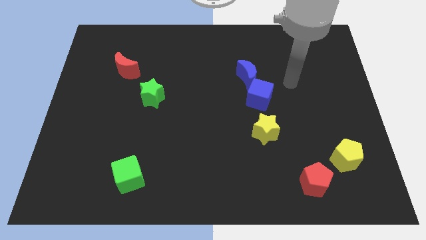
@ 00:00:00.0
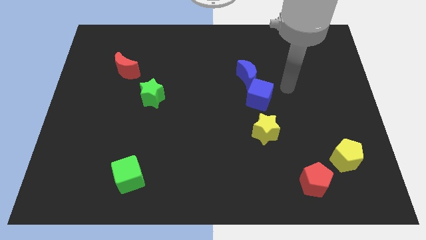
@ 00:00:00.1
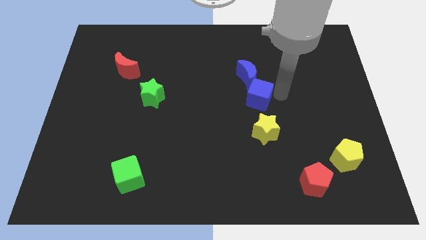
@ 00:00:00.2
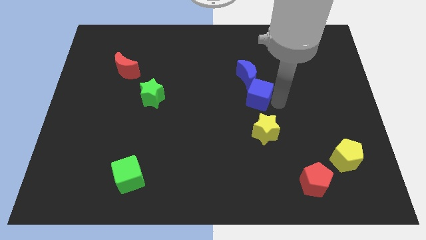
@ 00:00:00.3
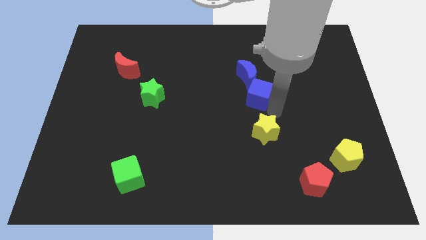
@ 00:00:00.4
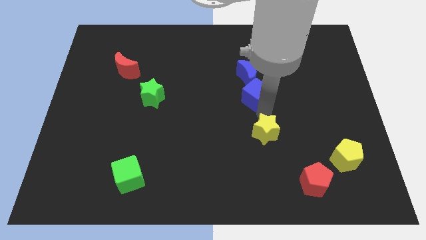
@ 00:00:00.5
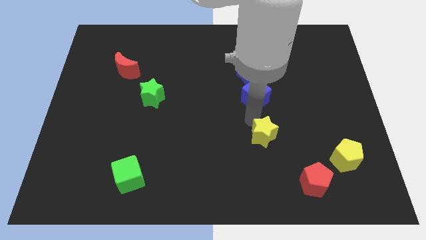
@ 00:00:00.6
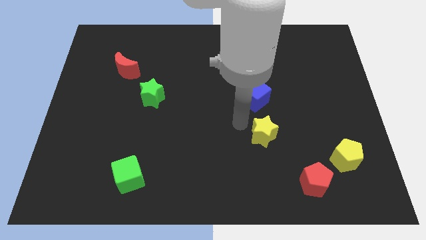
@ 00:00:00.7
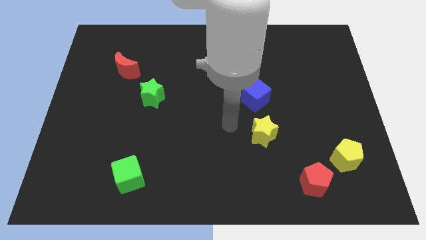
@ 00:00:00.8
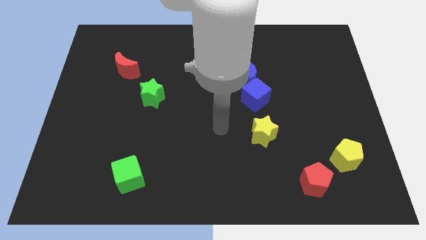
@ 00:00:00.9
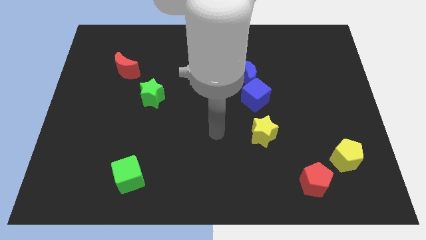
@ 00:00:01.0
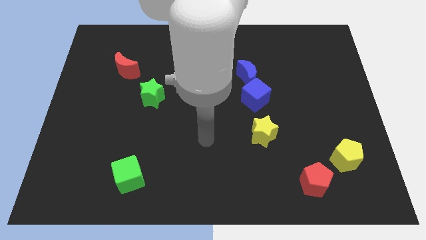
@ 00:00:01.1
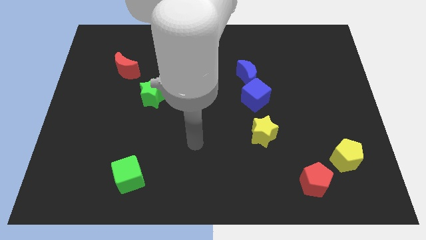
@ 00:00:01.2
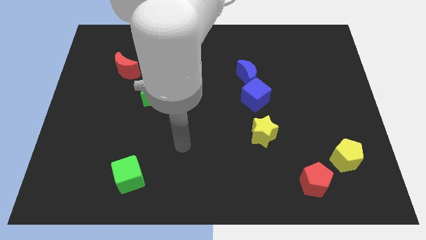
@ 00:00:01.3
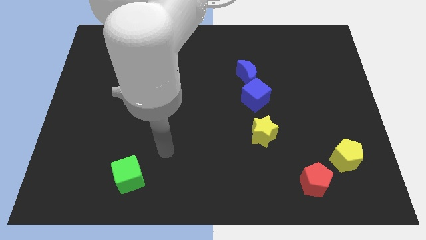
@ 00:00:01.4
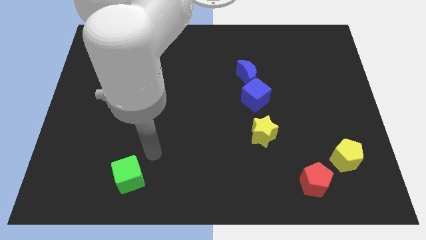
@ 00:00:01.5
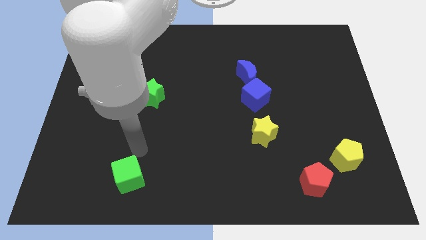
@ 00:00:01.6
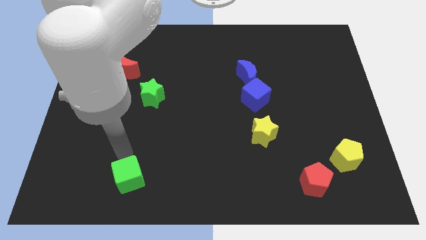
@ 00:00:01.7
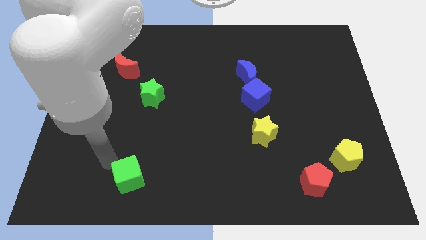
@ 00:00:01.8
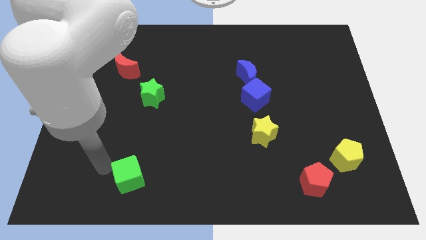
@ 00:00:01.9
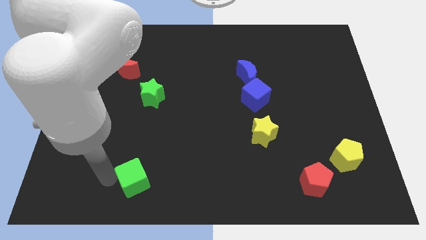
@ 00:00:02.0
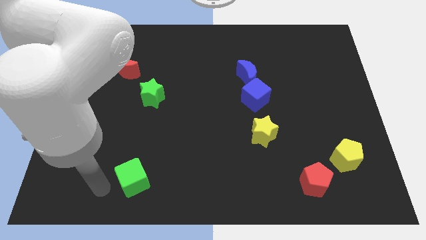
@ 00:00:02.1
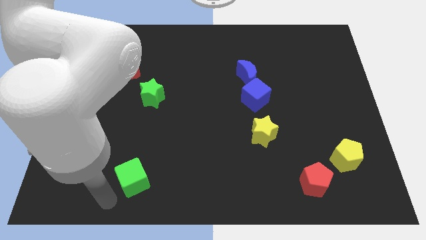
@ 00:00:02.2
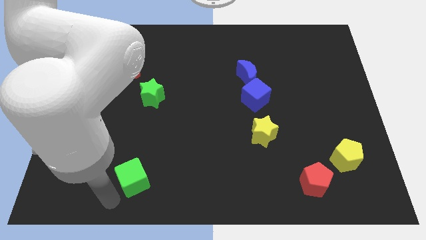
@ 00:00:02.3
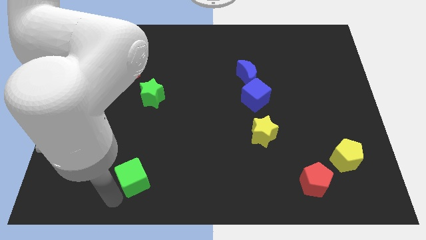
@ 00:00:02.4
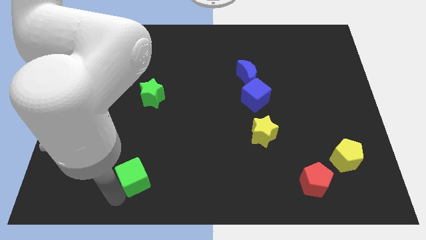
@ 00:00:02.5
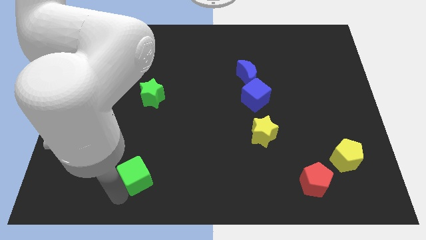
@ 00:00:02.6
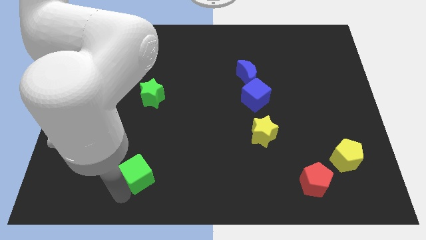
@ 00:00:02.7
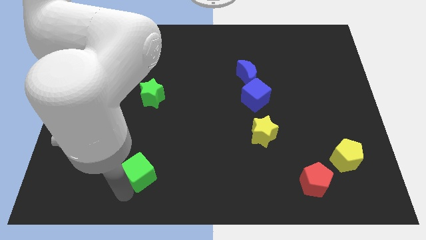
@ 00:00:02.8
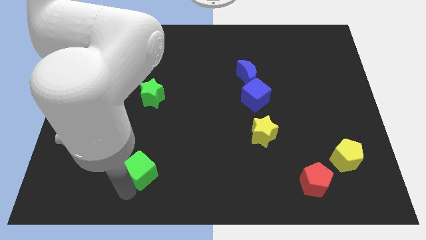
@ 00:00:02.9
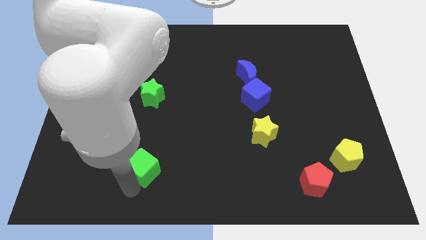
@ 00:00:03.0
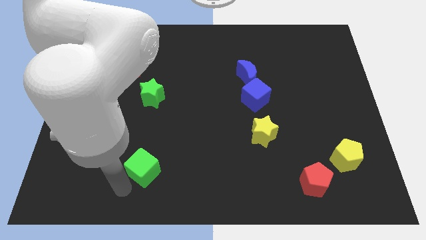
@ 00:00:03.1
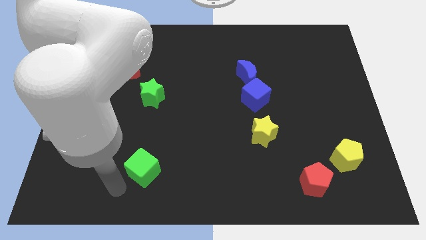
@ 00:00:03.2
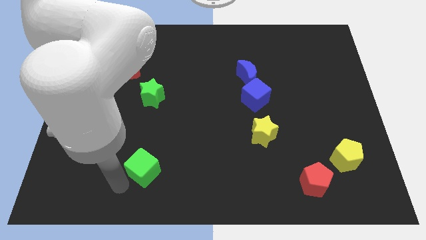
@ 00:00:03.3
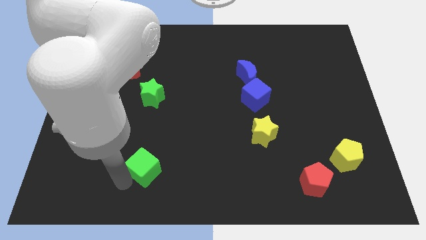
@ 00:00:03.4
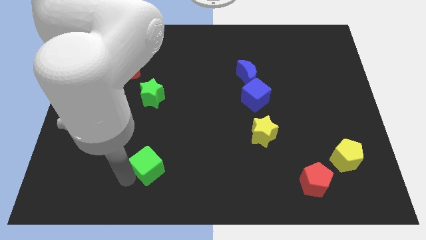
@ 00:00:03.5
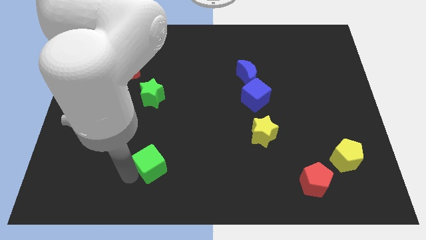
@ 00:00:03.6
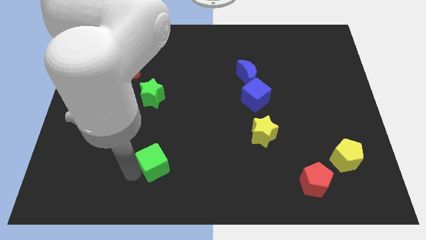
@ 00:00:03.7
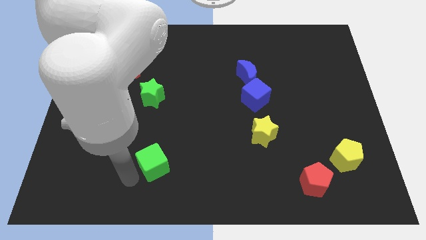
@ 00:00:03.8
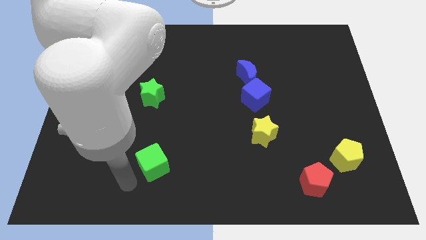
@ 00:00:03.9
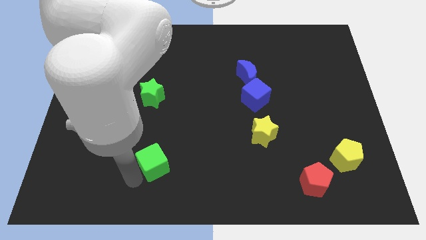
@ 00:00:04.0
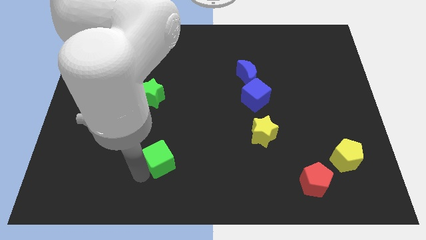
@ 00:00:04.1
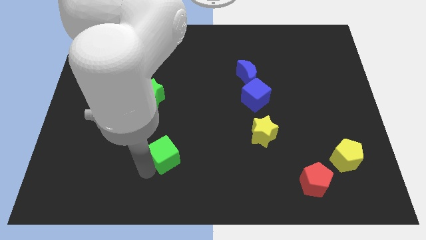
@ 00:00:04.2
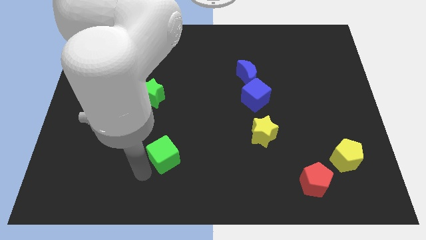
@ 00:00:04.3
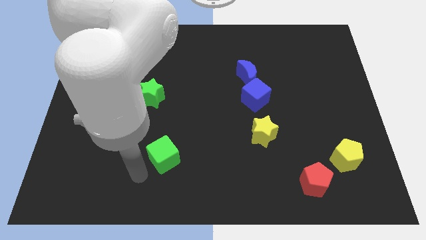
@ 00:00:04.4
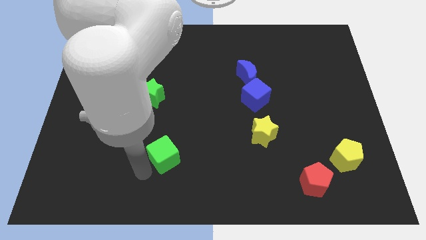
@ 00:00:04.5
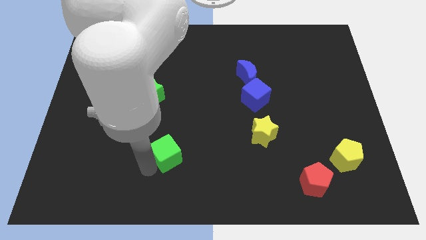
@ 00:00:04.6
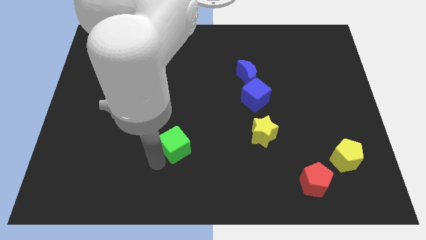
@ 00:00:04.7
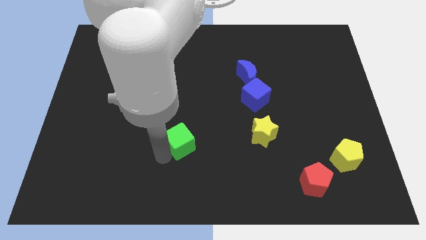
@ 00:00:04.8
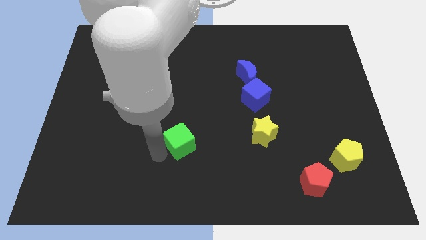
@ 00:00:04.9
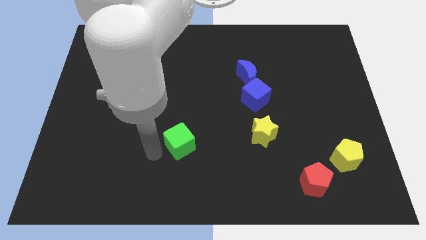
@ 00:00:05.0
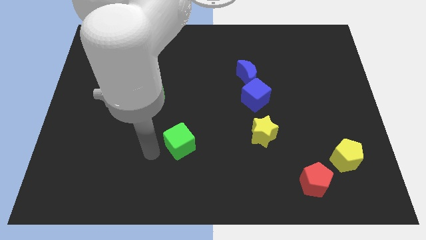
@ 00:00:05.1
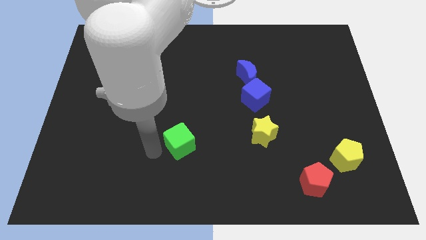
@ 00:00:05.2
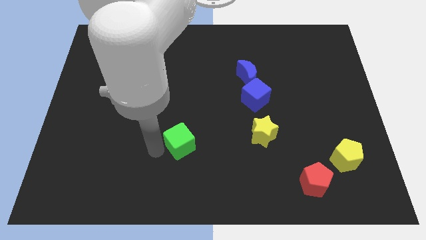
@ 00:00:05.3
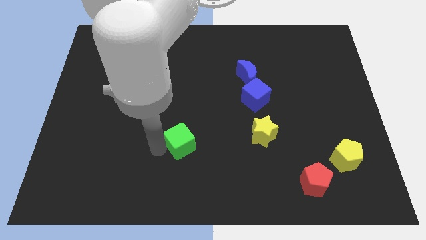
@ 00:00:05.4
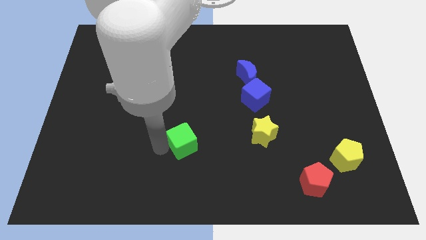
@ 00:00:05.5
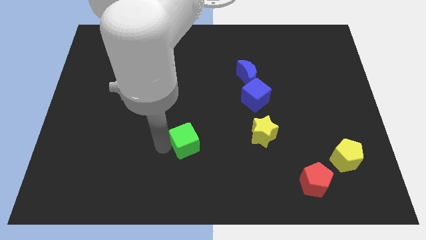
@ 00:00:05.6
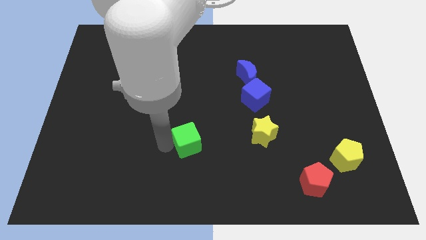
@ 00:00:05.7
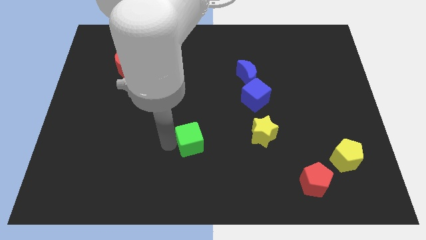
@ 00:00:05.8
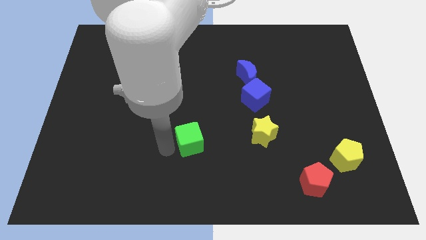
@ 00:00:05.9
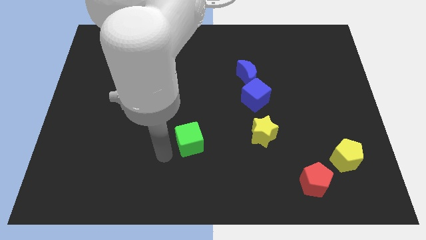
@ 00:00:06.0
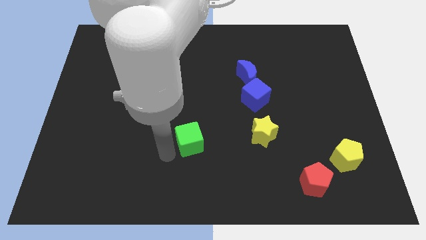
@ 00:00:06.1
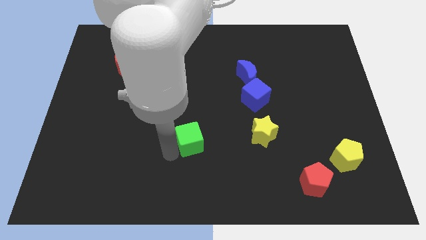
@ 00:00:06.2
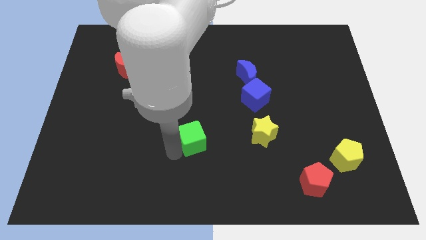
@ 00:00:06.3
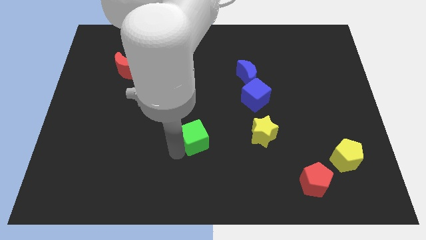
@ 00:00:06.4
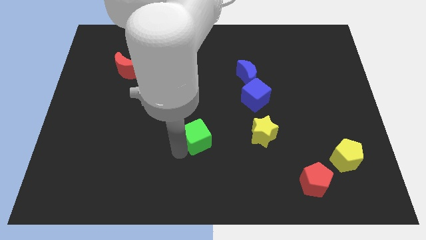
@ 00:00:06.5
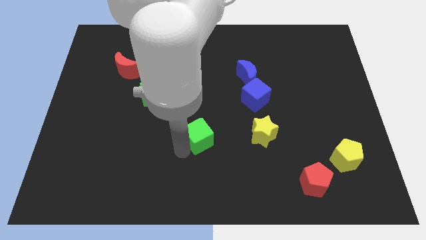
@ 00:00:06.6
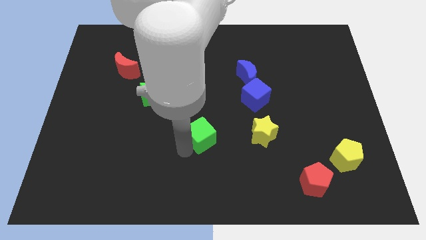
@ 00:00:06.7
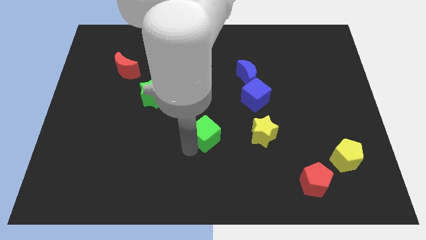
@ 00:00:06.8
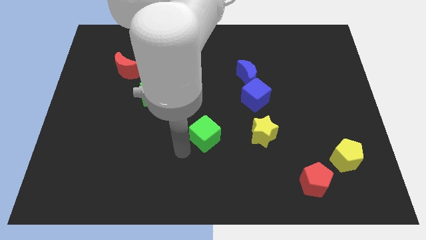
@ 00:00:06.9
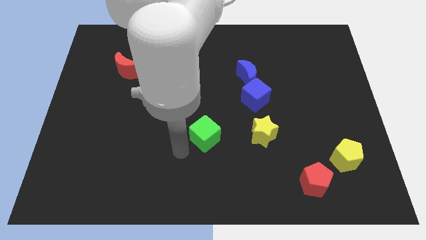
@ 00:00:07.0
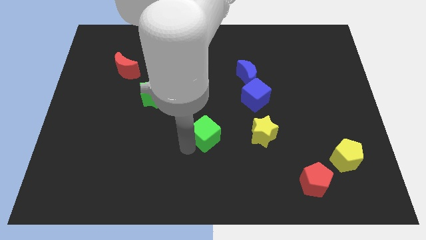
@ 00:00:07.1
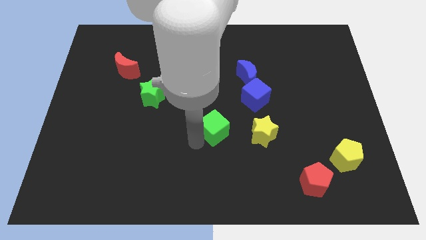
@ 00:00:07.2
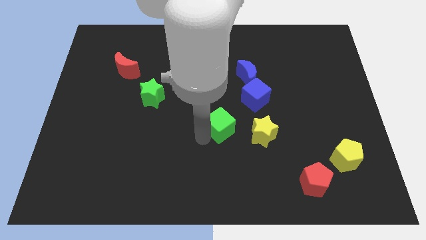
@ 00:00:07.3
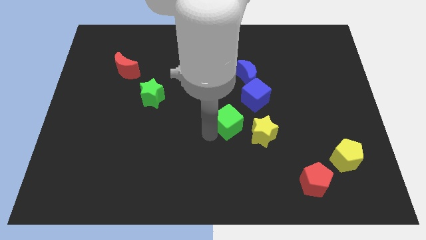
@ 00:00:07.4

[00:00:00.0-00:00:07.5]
move the green cube to the top left of the yellow star
